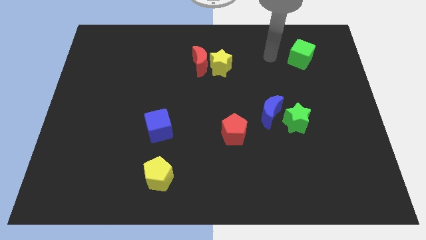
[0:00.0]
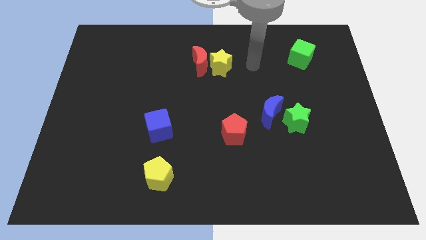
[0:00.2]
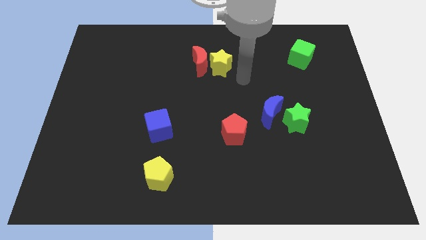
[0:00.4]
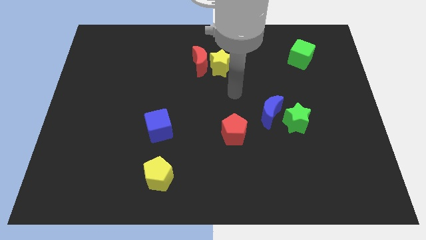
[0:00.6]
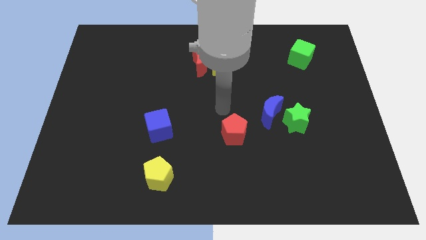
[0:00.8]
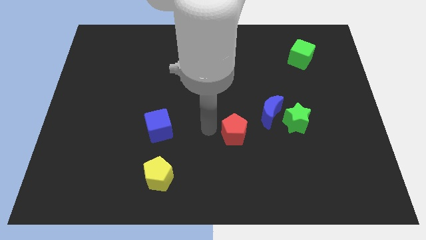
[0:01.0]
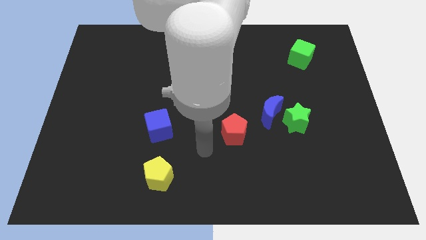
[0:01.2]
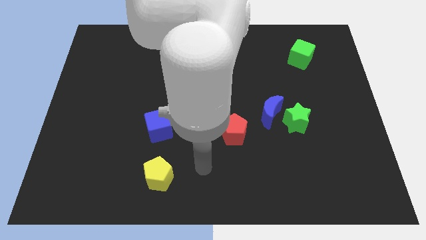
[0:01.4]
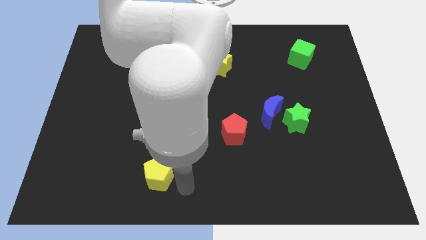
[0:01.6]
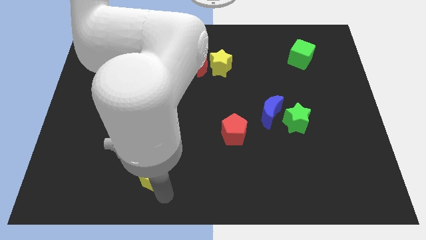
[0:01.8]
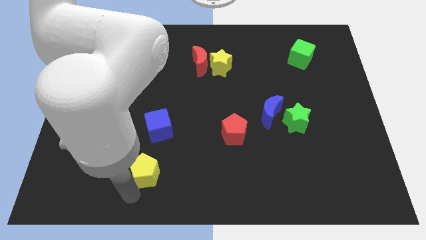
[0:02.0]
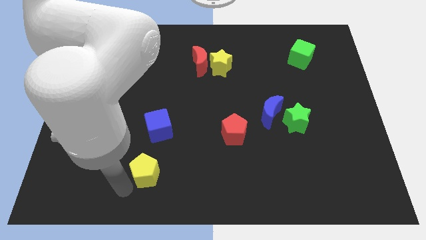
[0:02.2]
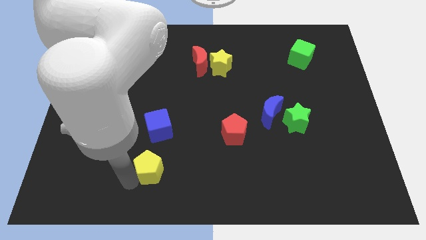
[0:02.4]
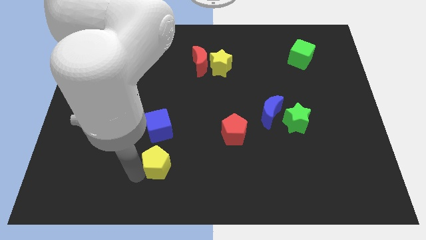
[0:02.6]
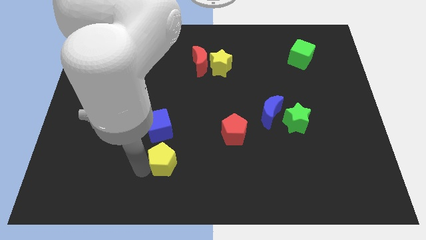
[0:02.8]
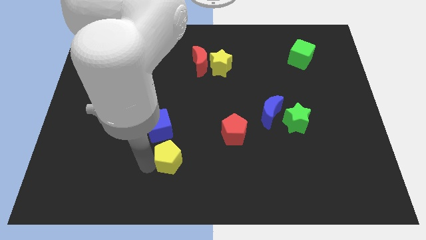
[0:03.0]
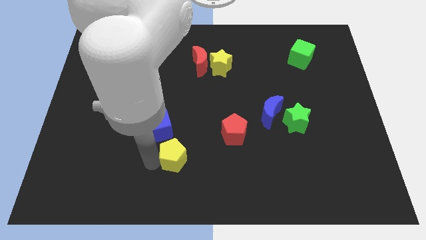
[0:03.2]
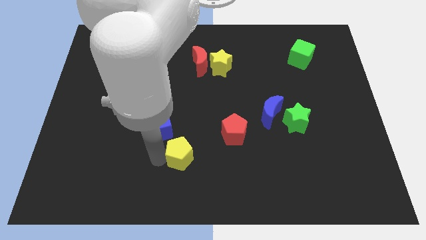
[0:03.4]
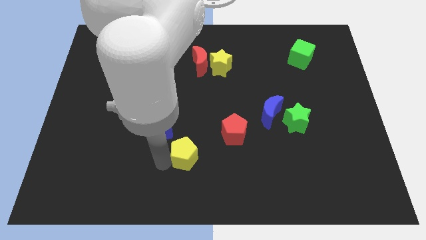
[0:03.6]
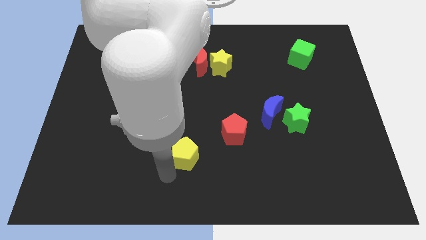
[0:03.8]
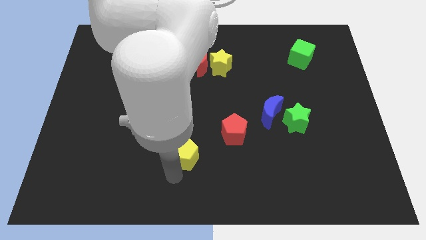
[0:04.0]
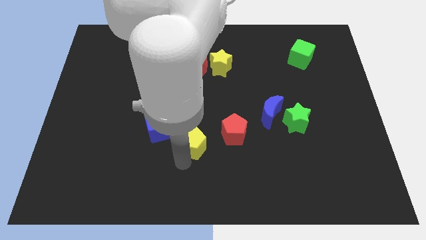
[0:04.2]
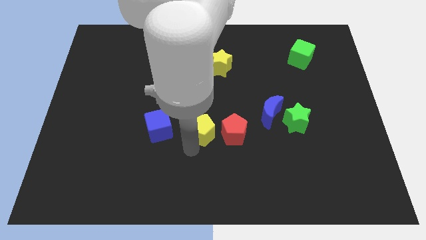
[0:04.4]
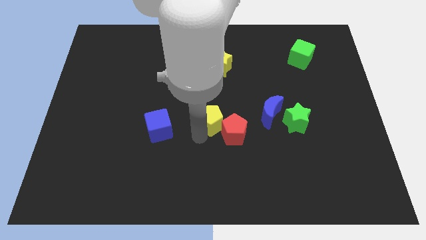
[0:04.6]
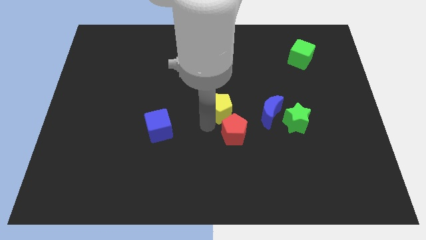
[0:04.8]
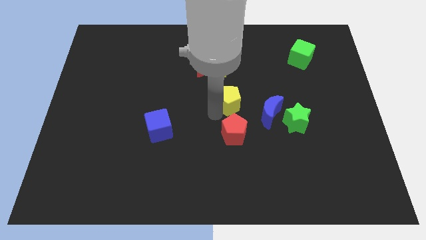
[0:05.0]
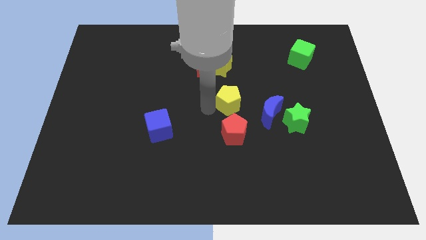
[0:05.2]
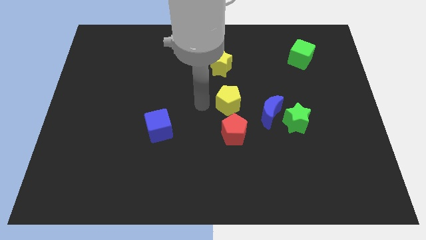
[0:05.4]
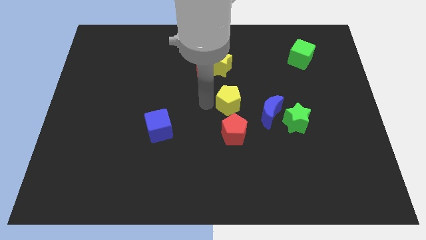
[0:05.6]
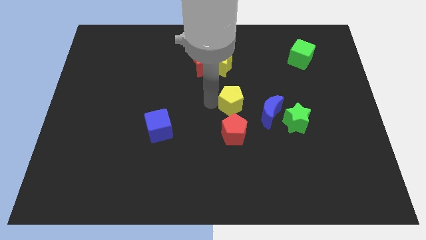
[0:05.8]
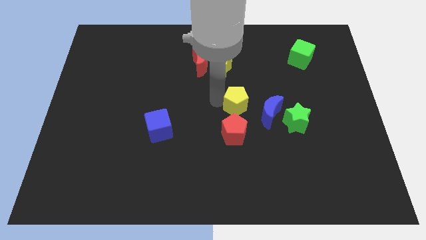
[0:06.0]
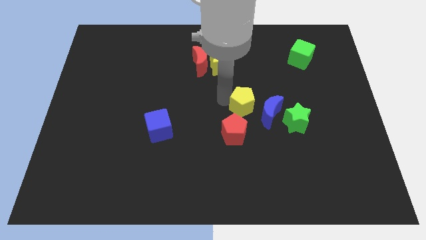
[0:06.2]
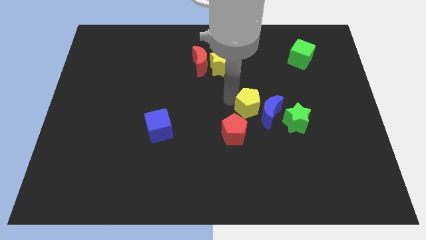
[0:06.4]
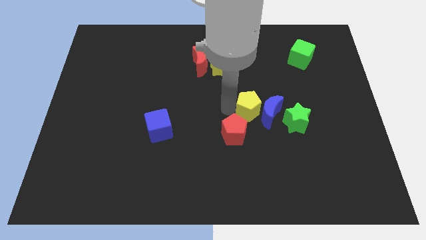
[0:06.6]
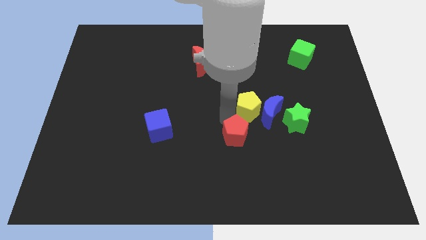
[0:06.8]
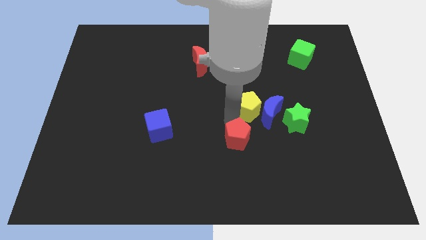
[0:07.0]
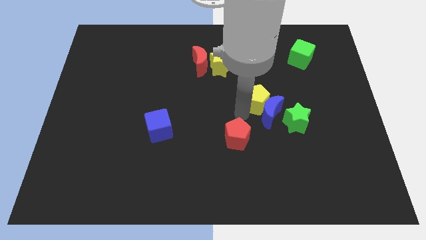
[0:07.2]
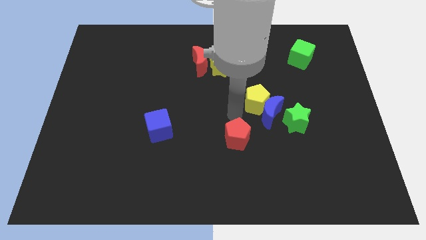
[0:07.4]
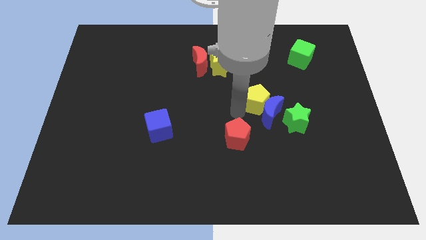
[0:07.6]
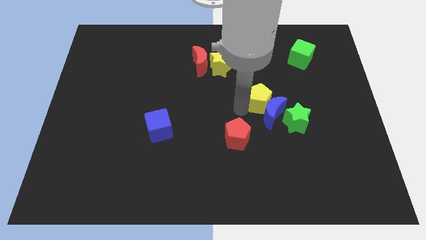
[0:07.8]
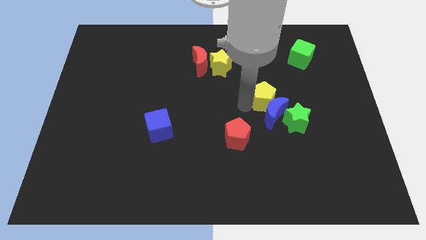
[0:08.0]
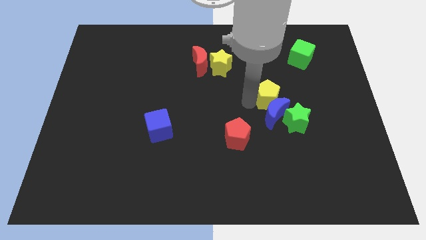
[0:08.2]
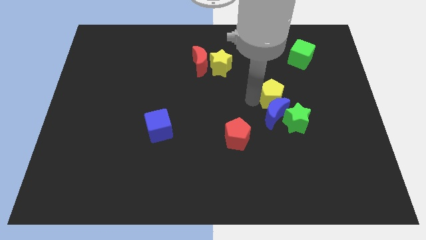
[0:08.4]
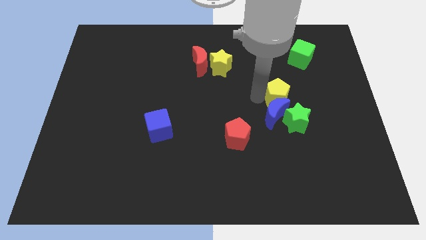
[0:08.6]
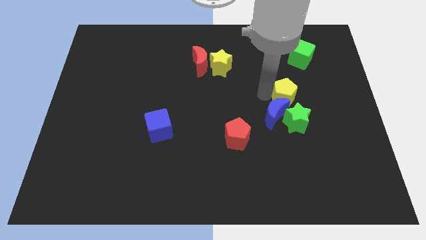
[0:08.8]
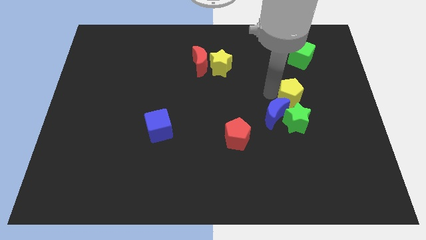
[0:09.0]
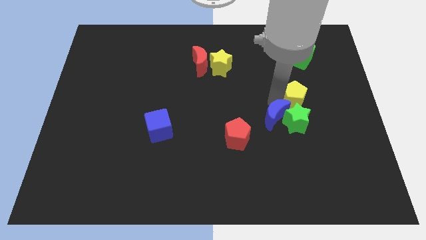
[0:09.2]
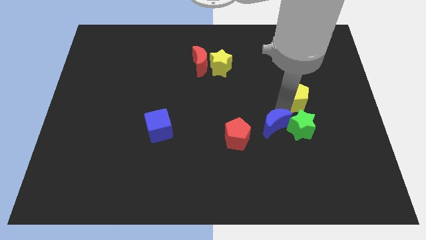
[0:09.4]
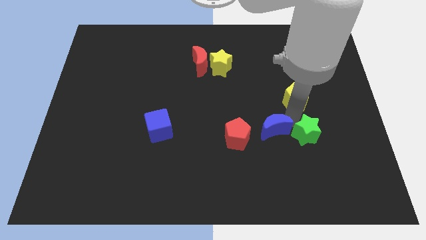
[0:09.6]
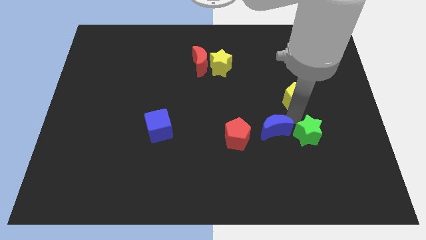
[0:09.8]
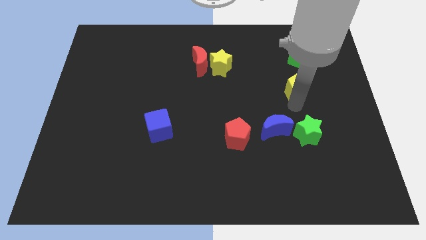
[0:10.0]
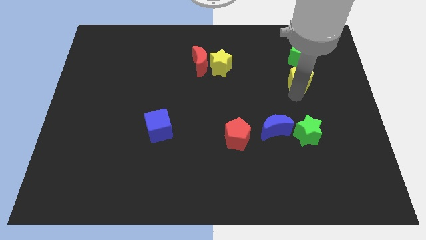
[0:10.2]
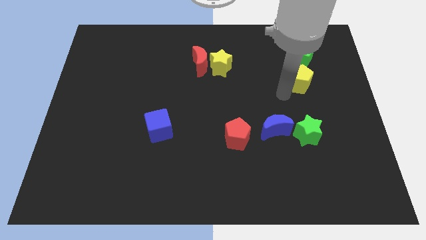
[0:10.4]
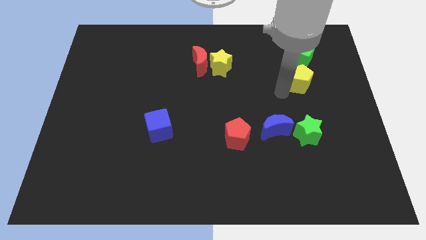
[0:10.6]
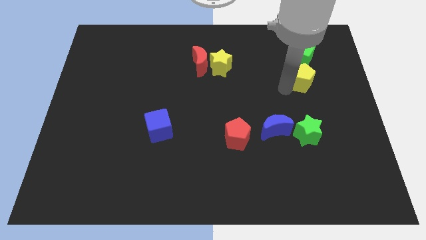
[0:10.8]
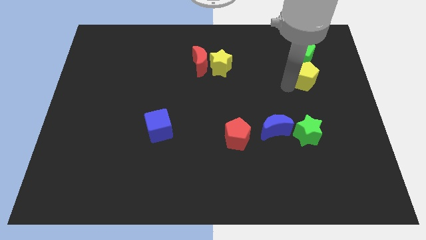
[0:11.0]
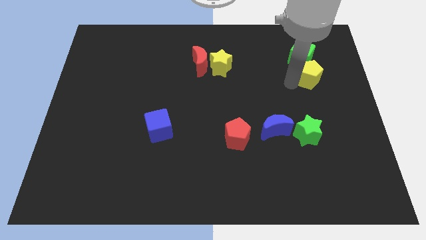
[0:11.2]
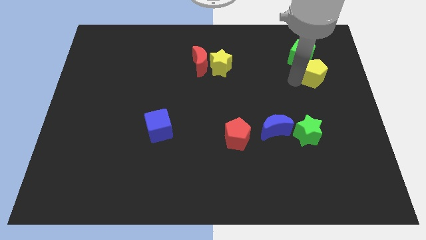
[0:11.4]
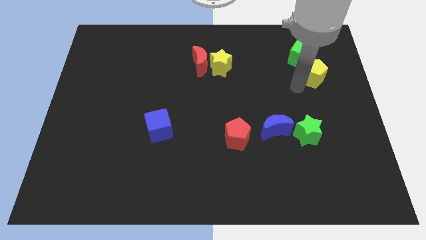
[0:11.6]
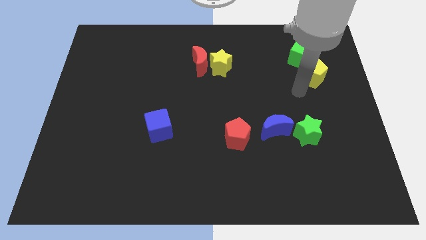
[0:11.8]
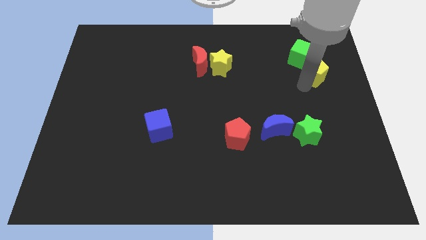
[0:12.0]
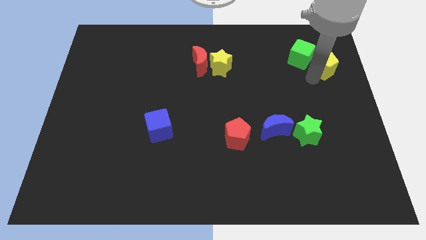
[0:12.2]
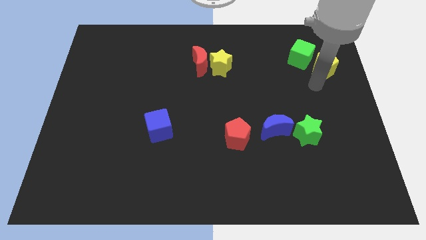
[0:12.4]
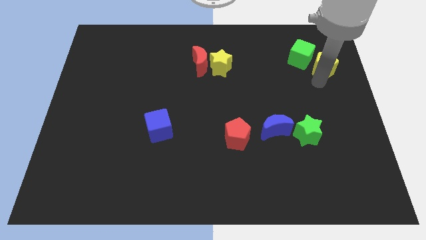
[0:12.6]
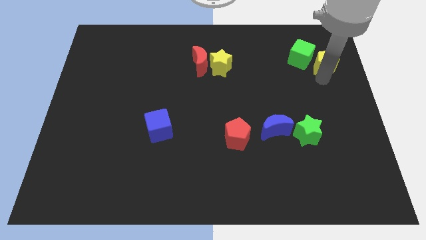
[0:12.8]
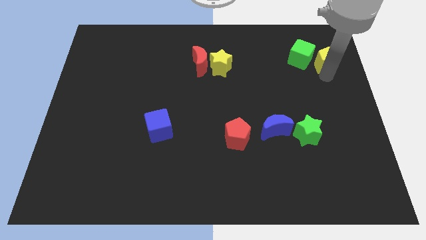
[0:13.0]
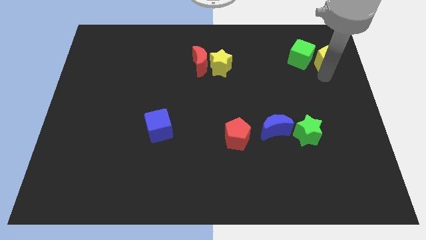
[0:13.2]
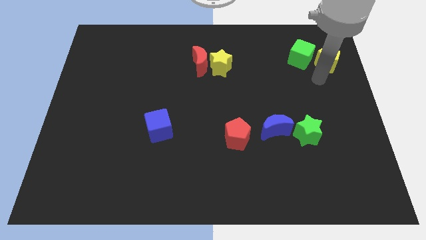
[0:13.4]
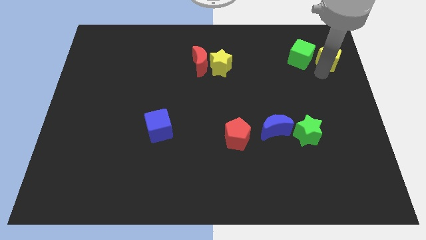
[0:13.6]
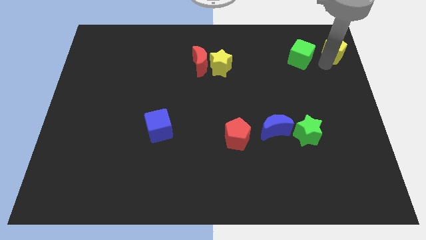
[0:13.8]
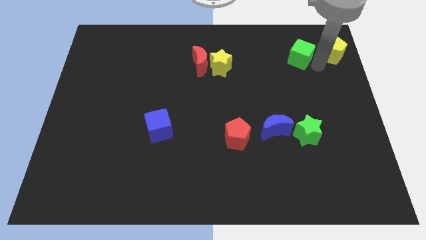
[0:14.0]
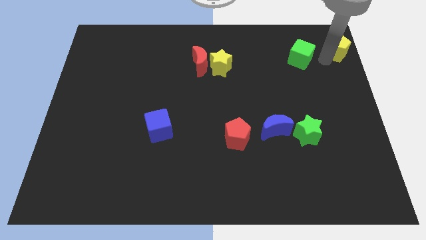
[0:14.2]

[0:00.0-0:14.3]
slide the yellow pentagon to the top right corner
